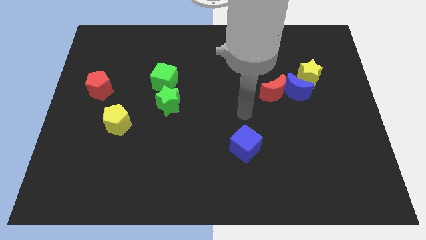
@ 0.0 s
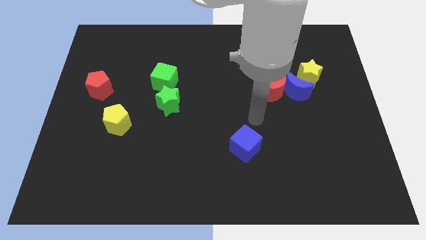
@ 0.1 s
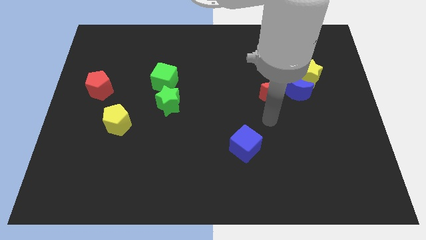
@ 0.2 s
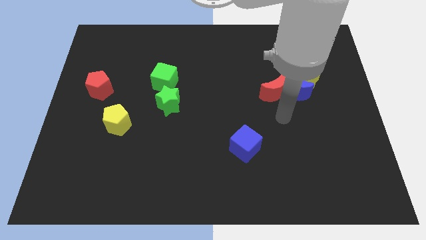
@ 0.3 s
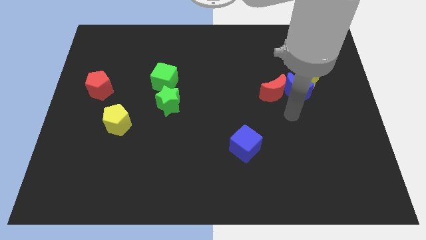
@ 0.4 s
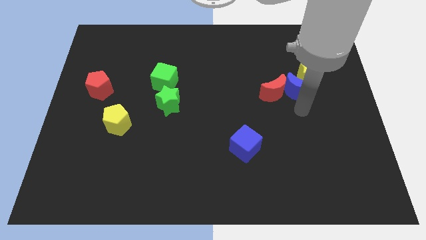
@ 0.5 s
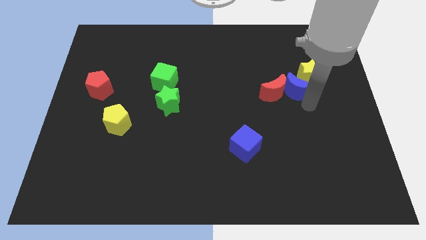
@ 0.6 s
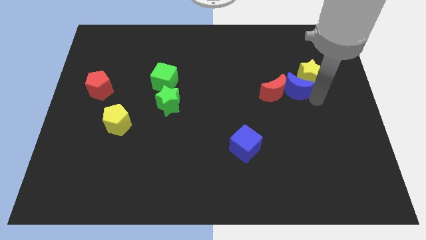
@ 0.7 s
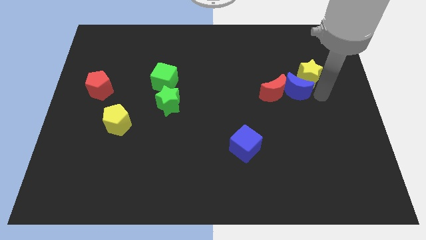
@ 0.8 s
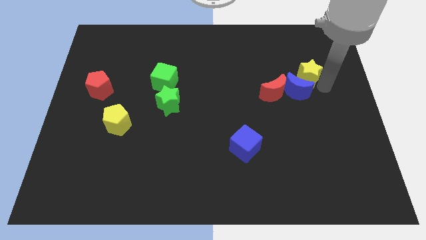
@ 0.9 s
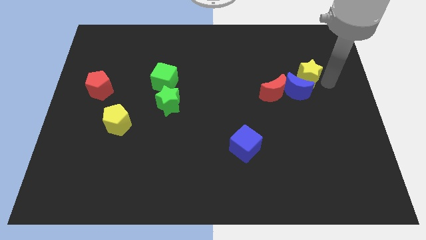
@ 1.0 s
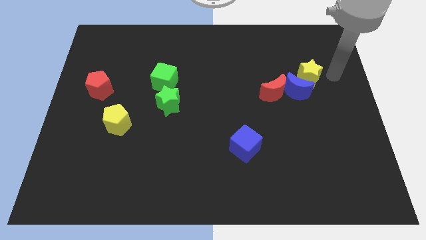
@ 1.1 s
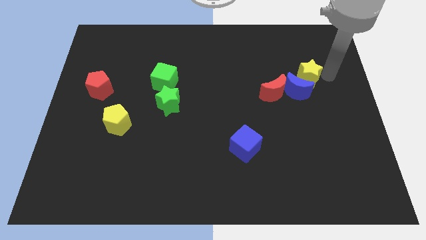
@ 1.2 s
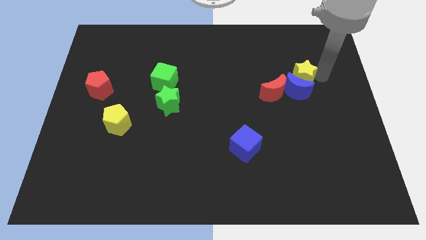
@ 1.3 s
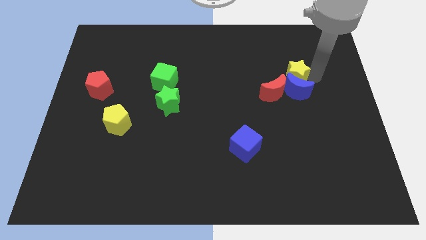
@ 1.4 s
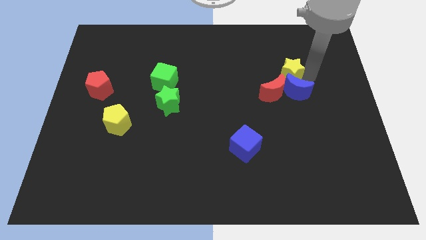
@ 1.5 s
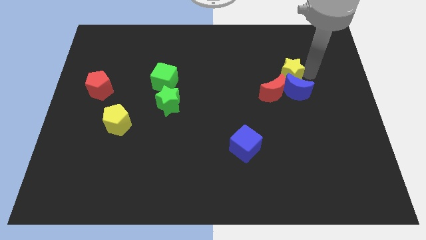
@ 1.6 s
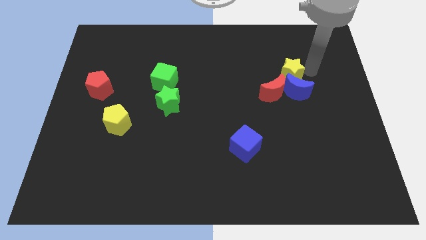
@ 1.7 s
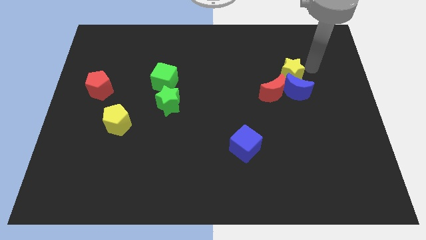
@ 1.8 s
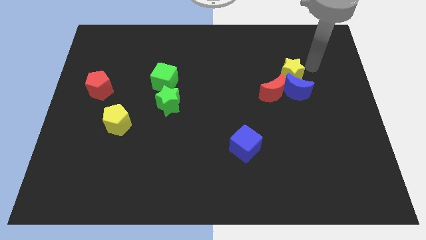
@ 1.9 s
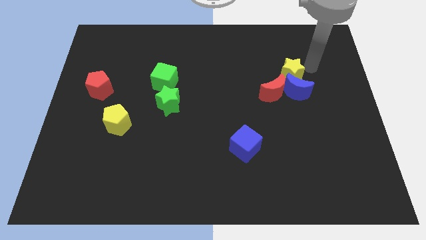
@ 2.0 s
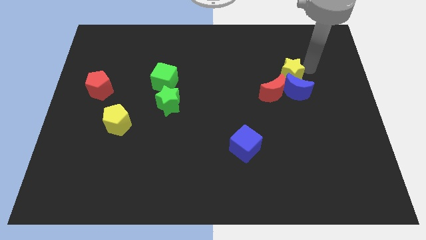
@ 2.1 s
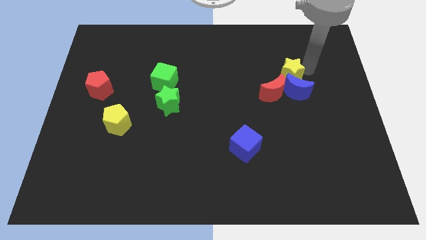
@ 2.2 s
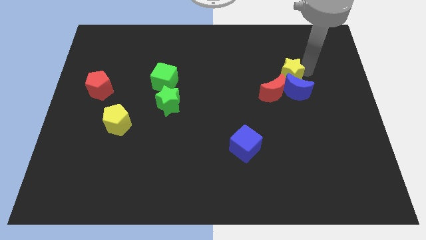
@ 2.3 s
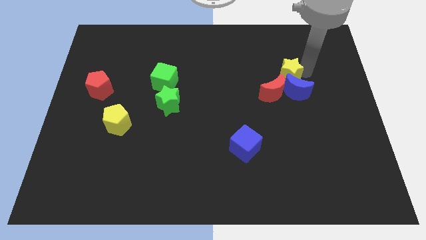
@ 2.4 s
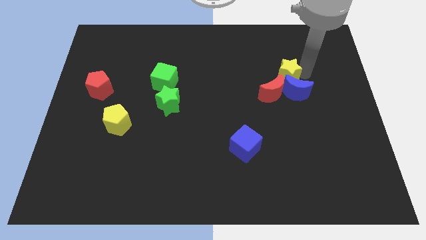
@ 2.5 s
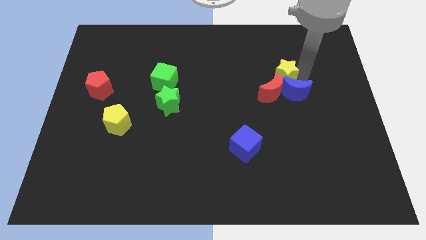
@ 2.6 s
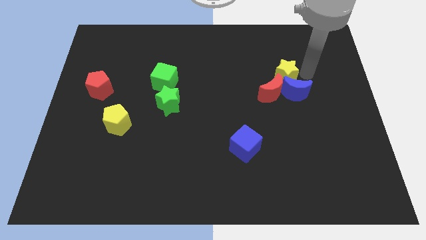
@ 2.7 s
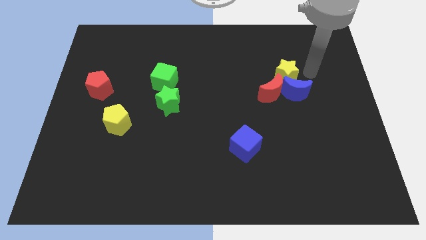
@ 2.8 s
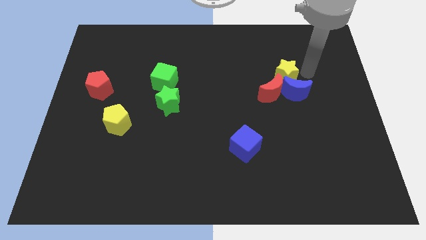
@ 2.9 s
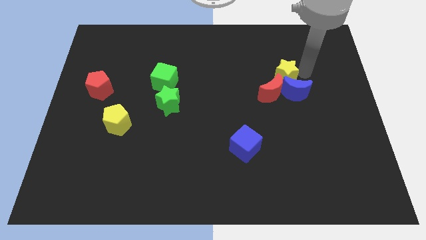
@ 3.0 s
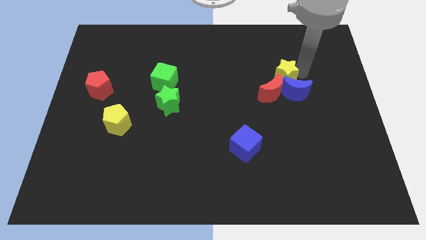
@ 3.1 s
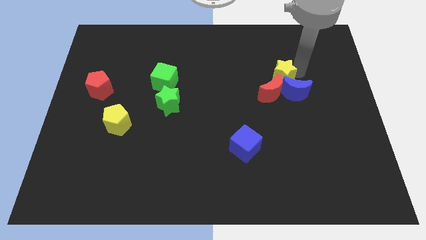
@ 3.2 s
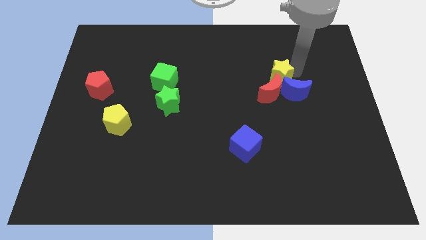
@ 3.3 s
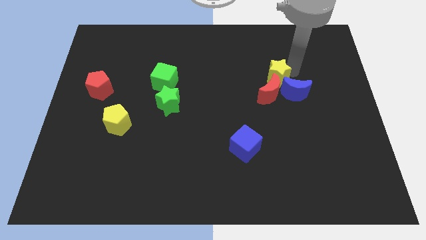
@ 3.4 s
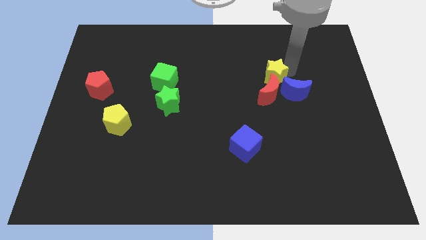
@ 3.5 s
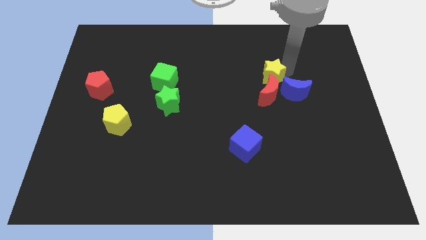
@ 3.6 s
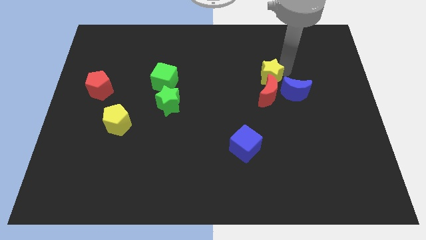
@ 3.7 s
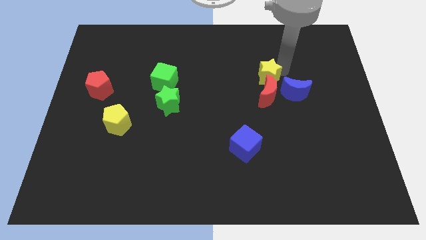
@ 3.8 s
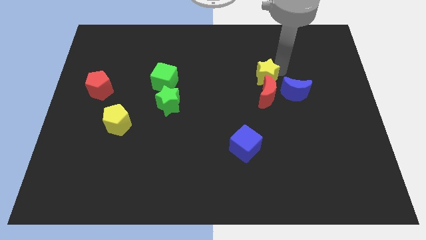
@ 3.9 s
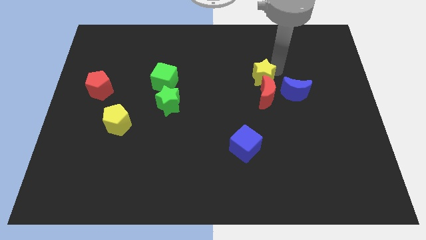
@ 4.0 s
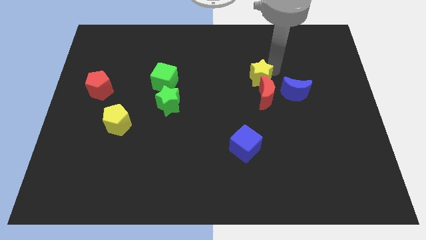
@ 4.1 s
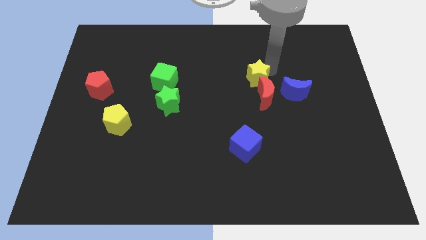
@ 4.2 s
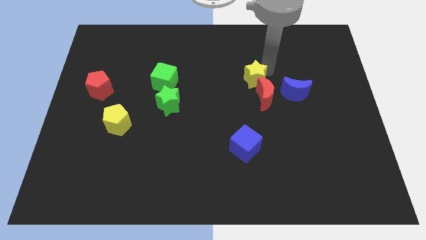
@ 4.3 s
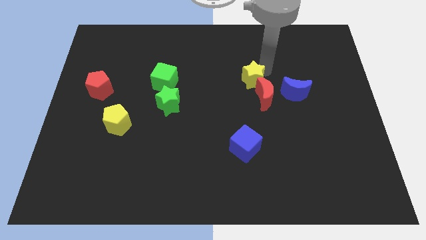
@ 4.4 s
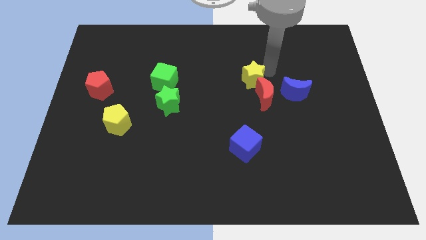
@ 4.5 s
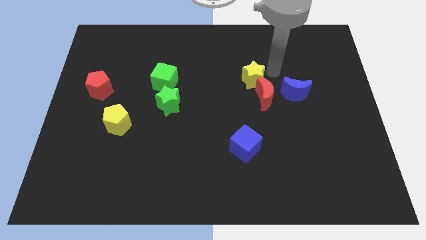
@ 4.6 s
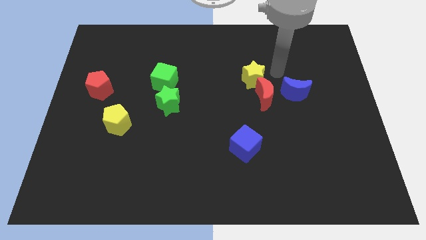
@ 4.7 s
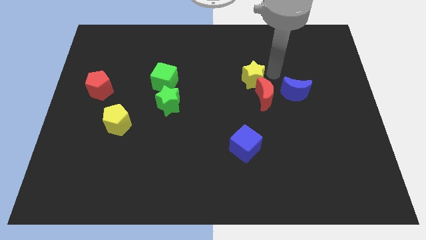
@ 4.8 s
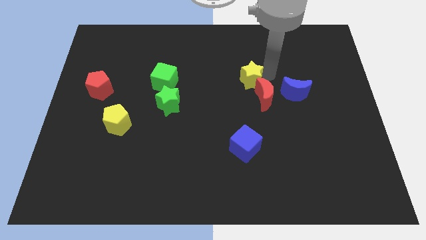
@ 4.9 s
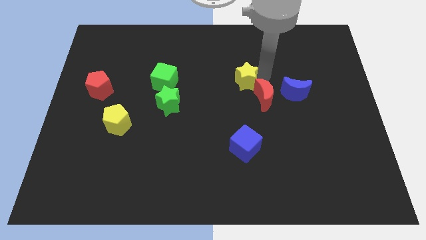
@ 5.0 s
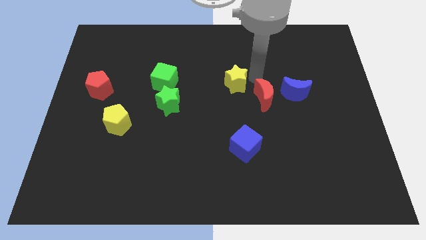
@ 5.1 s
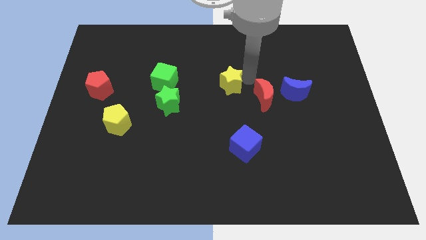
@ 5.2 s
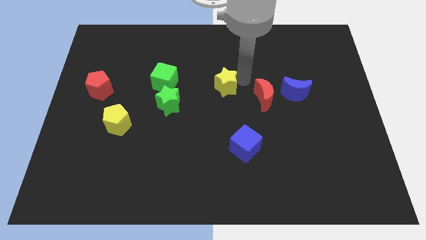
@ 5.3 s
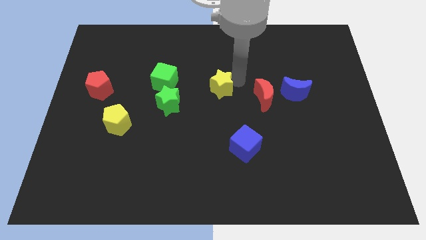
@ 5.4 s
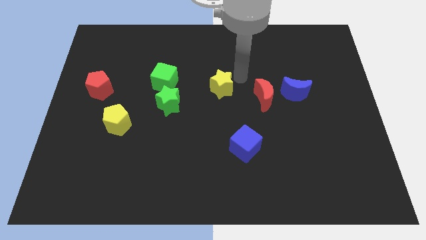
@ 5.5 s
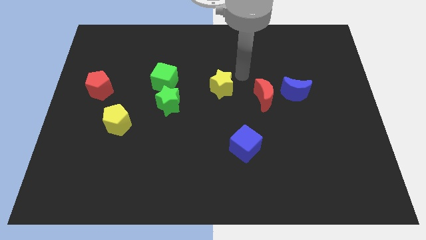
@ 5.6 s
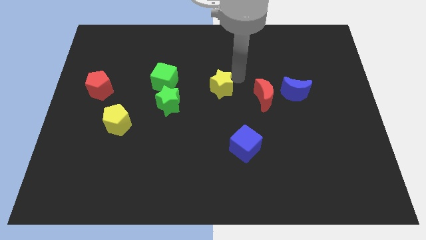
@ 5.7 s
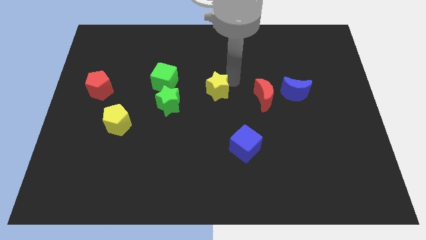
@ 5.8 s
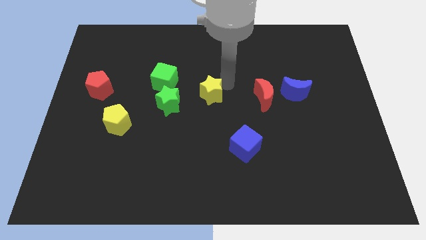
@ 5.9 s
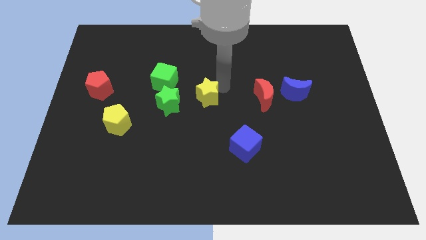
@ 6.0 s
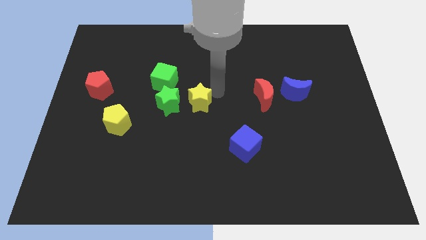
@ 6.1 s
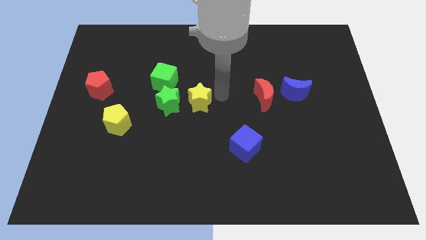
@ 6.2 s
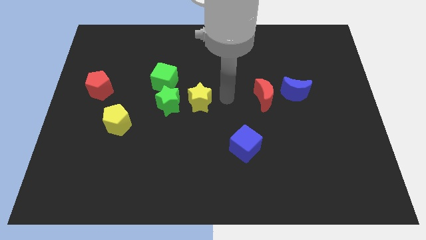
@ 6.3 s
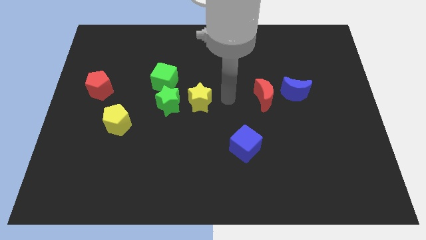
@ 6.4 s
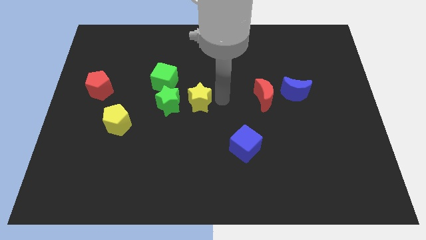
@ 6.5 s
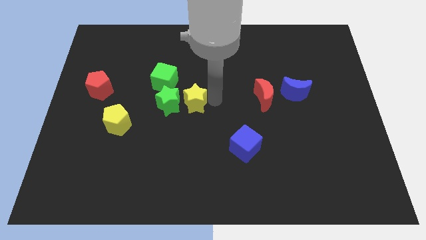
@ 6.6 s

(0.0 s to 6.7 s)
move the yellow star to the green star

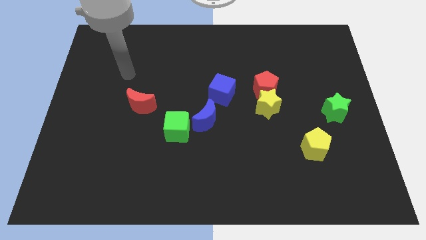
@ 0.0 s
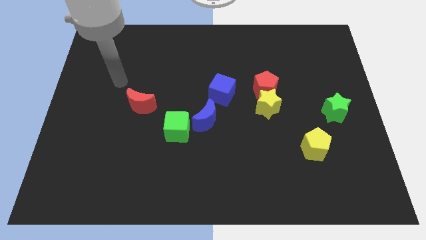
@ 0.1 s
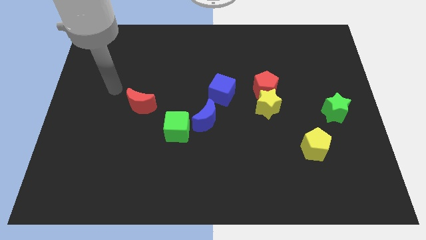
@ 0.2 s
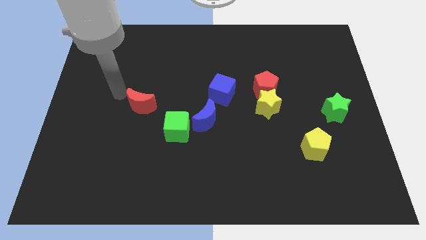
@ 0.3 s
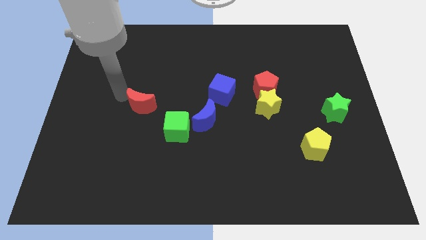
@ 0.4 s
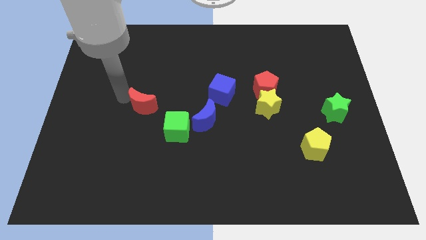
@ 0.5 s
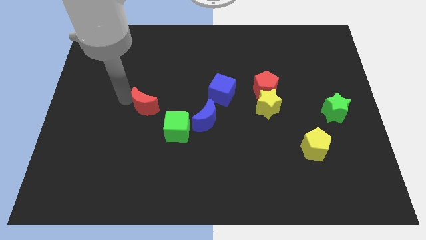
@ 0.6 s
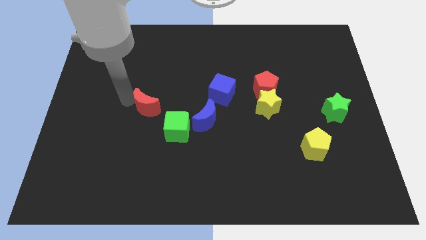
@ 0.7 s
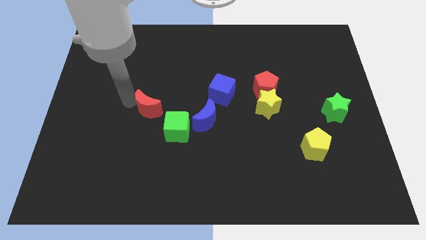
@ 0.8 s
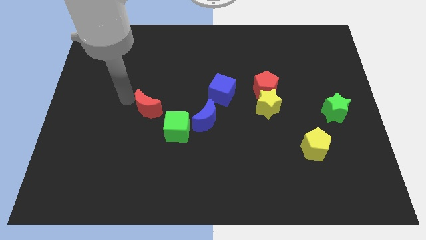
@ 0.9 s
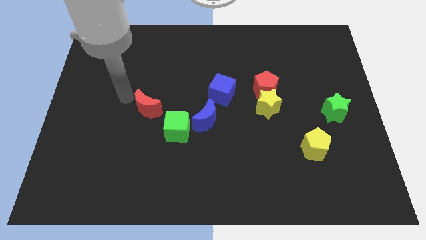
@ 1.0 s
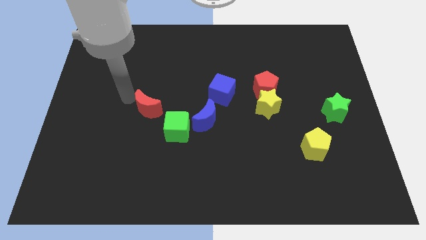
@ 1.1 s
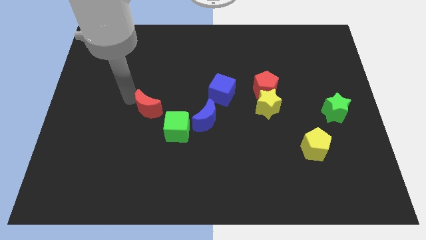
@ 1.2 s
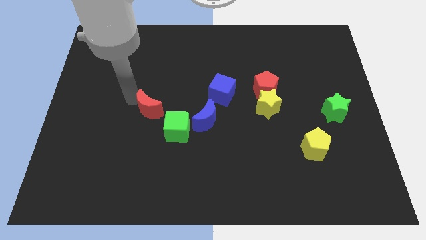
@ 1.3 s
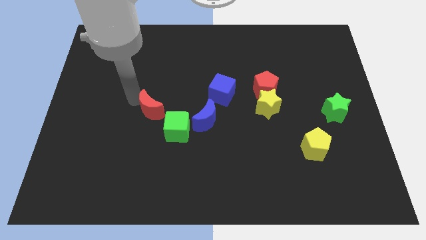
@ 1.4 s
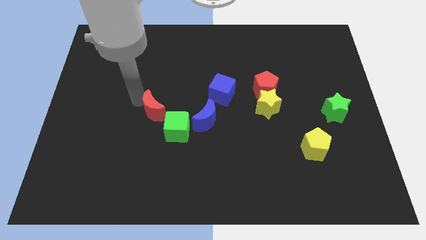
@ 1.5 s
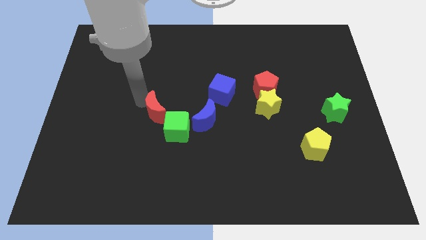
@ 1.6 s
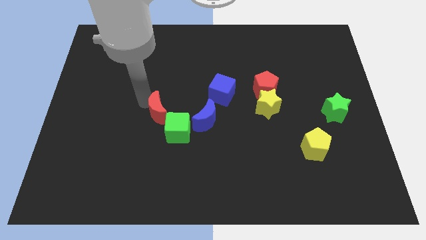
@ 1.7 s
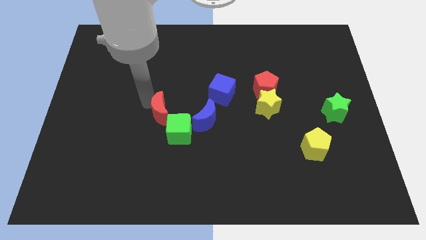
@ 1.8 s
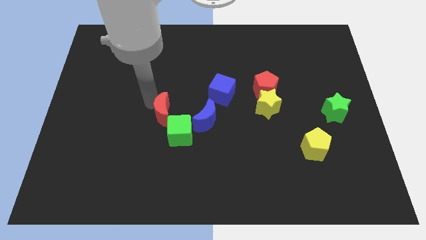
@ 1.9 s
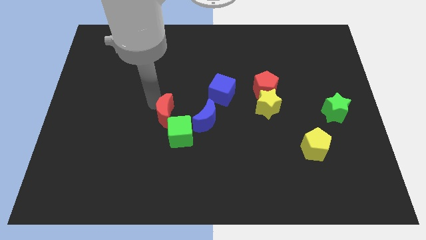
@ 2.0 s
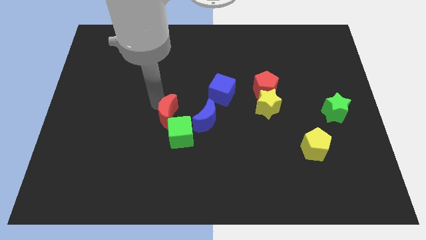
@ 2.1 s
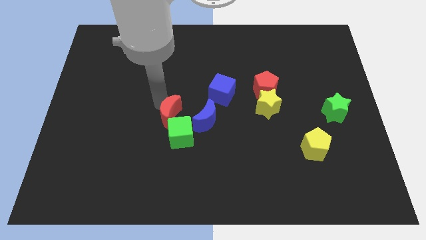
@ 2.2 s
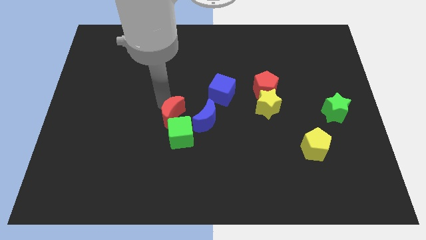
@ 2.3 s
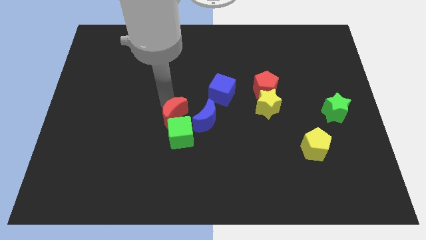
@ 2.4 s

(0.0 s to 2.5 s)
push the red moon to the green cube
